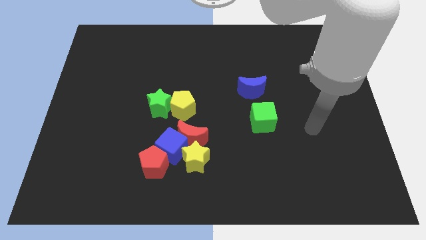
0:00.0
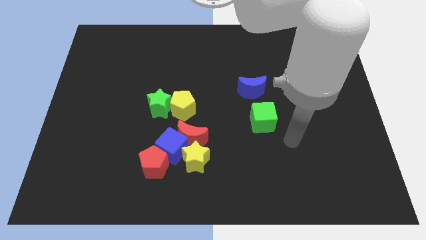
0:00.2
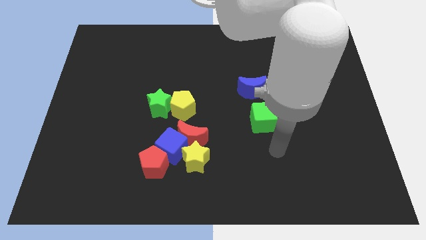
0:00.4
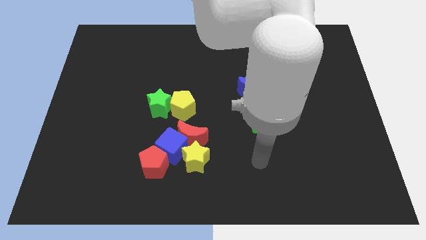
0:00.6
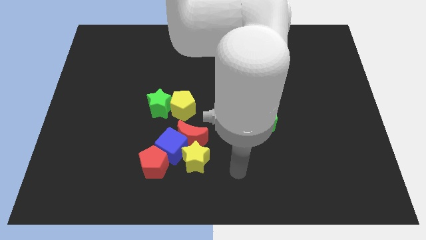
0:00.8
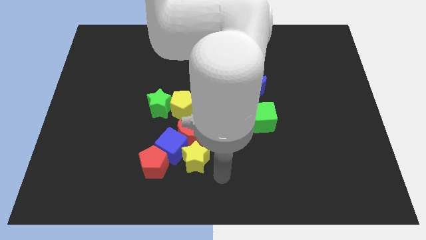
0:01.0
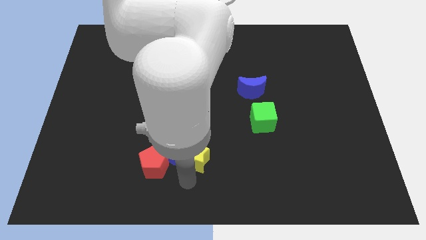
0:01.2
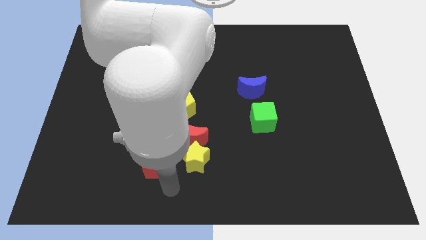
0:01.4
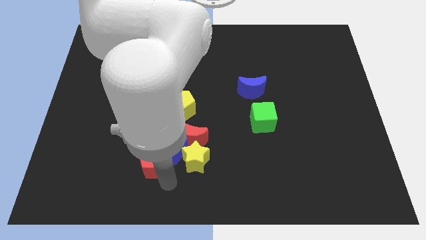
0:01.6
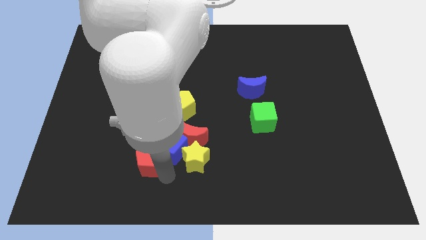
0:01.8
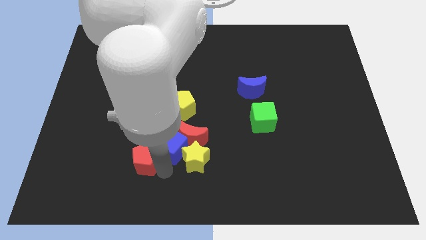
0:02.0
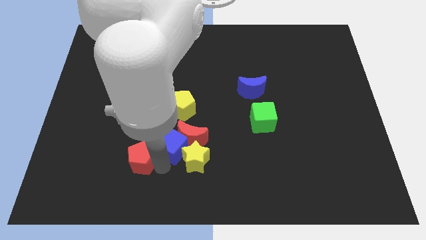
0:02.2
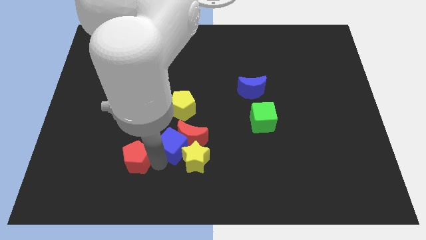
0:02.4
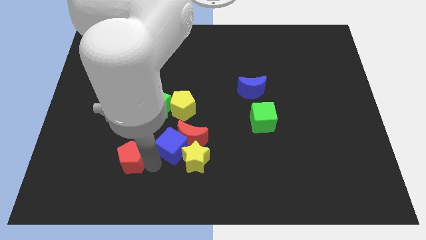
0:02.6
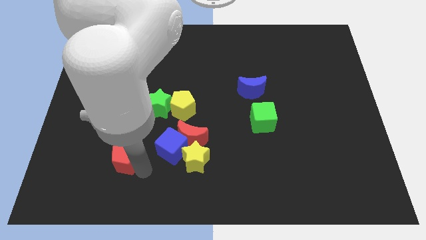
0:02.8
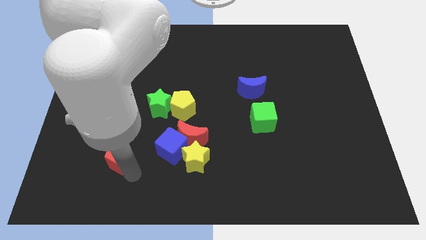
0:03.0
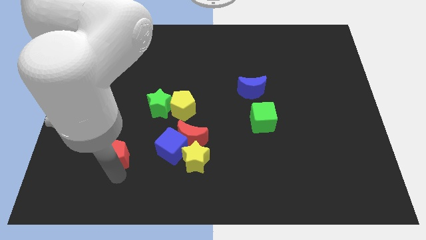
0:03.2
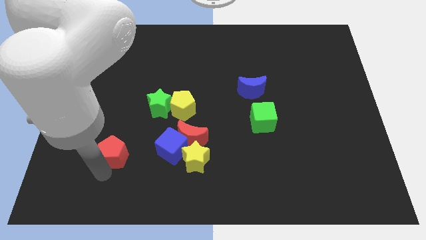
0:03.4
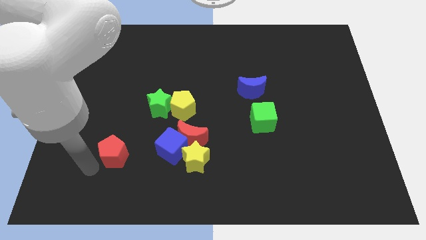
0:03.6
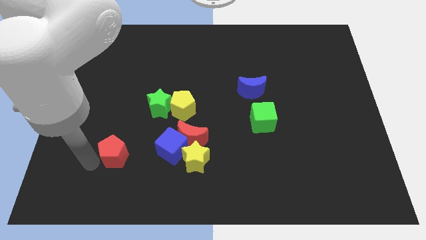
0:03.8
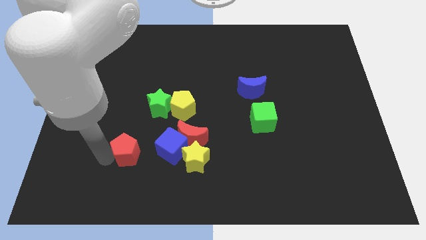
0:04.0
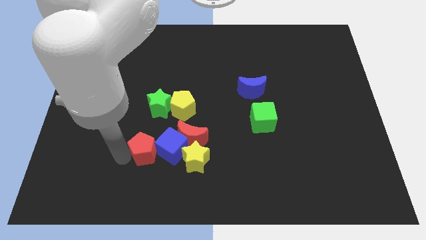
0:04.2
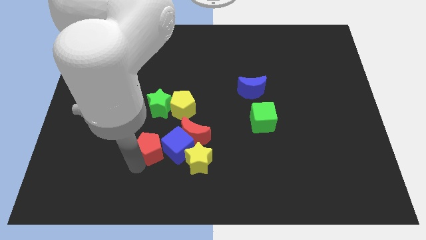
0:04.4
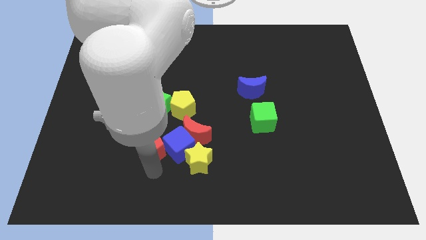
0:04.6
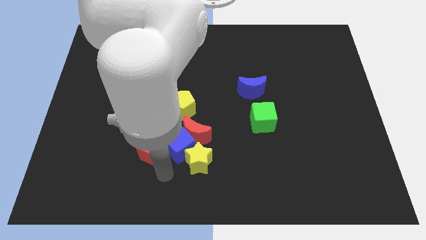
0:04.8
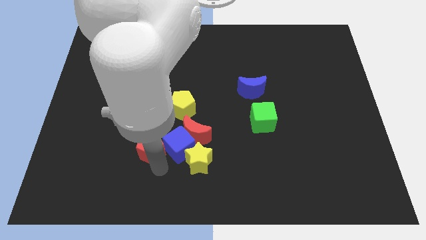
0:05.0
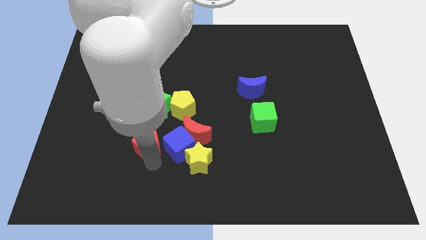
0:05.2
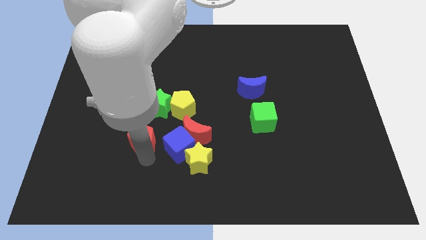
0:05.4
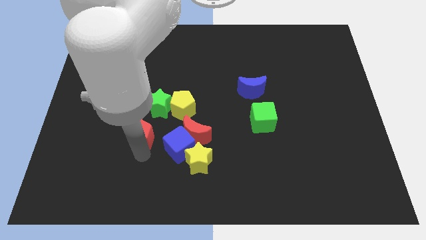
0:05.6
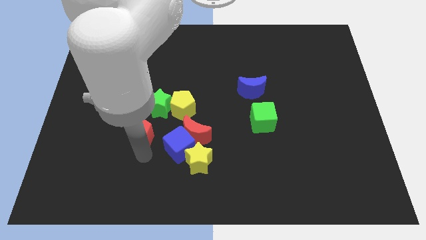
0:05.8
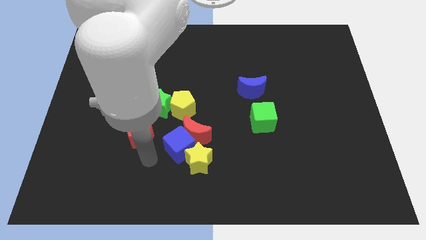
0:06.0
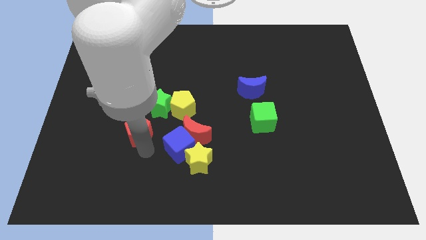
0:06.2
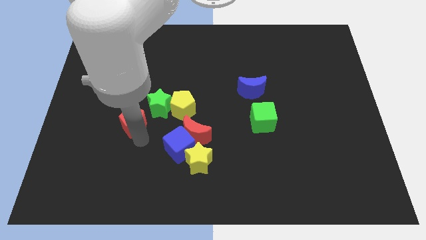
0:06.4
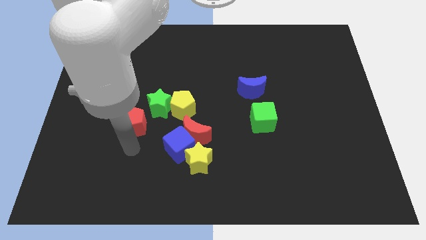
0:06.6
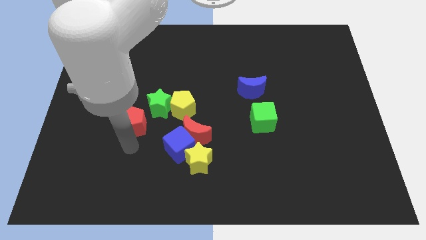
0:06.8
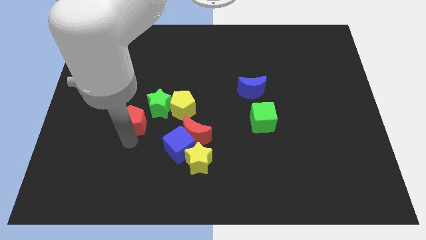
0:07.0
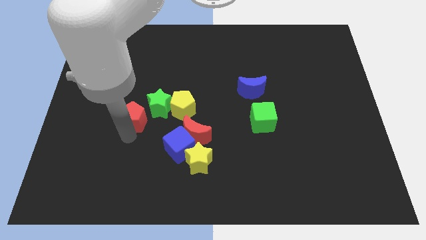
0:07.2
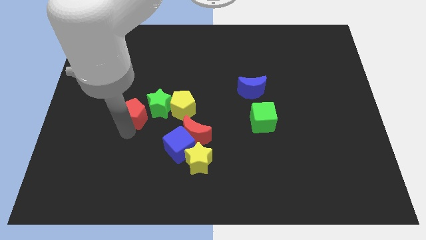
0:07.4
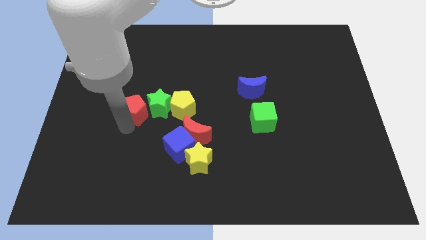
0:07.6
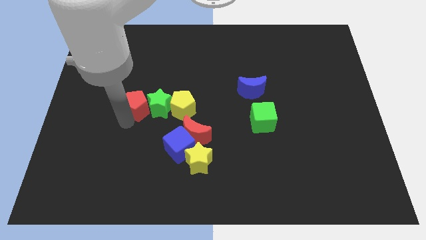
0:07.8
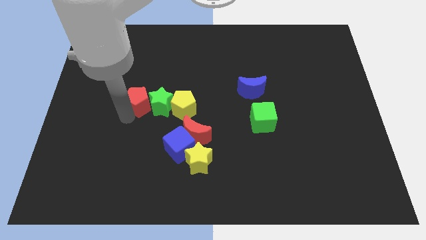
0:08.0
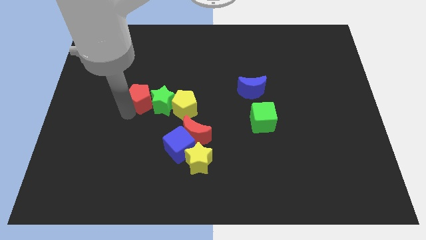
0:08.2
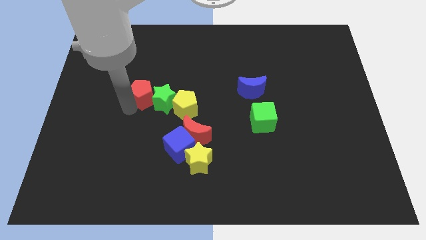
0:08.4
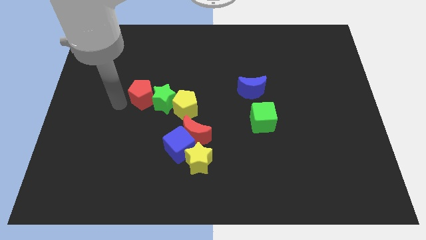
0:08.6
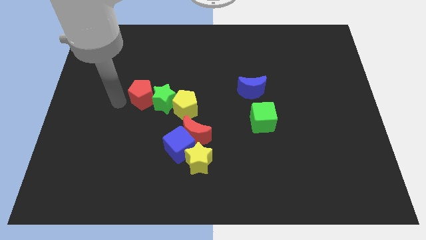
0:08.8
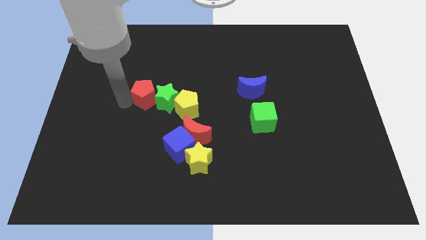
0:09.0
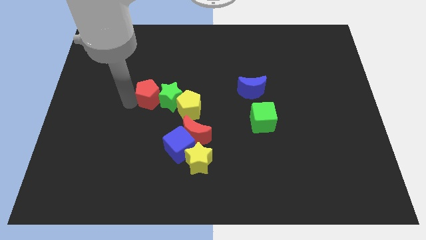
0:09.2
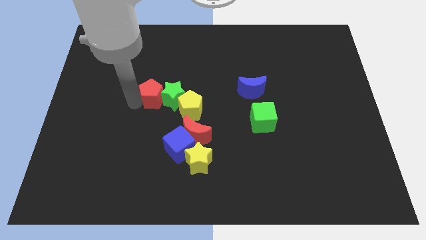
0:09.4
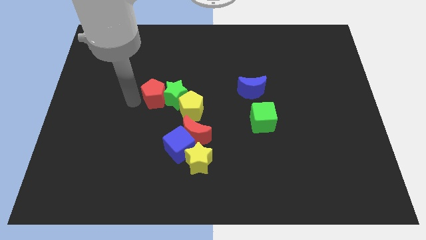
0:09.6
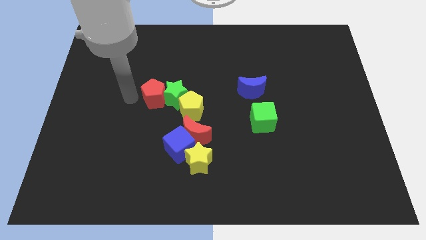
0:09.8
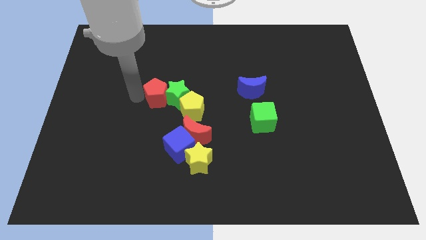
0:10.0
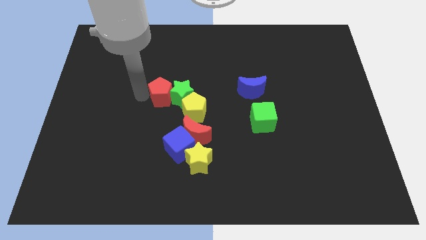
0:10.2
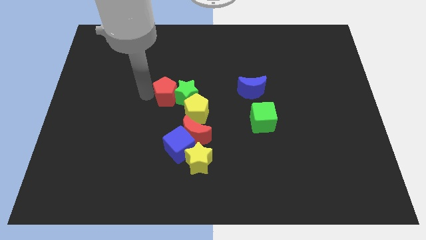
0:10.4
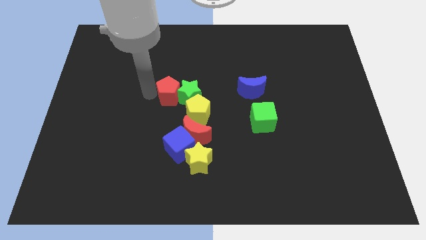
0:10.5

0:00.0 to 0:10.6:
put the red pentagon above the blue cube

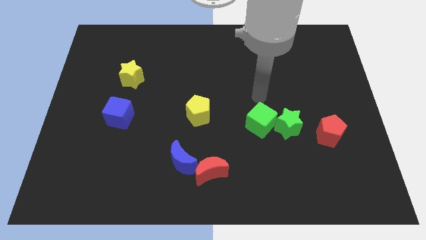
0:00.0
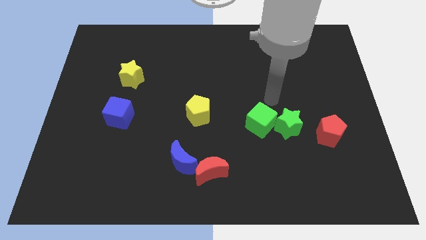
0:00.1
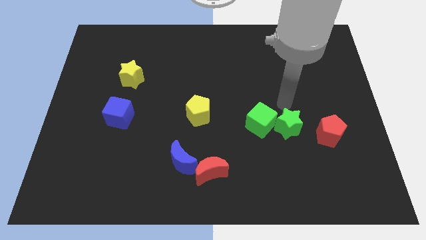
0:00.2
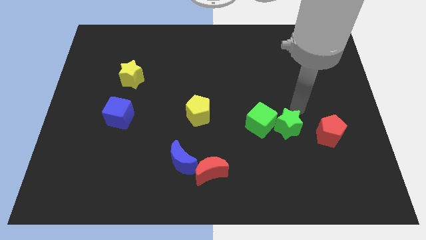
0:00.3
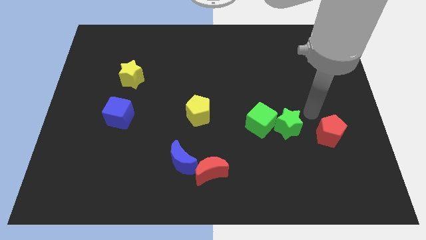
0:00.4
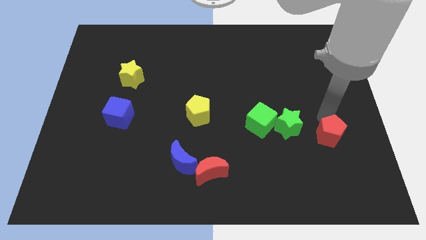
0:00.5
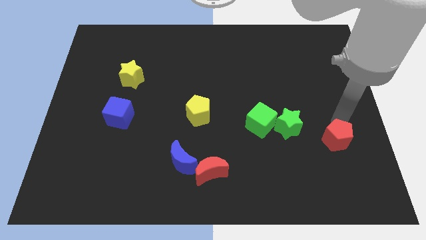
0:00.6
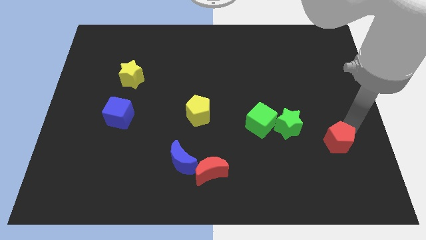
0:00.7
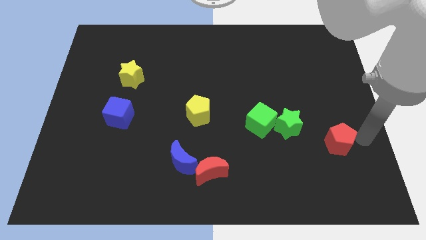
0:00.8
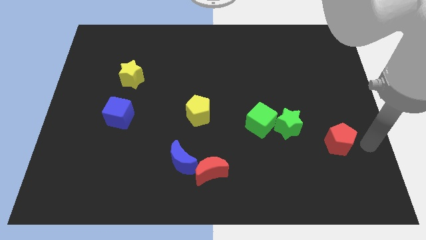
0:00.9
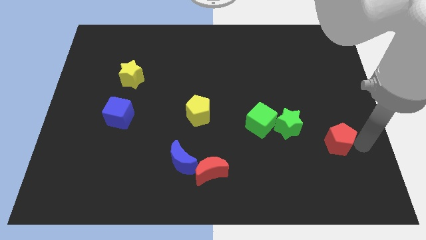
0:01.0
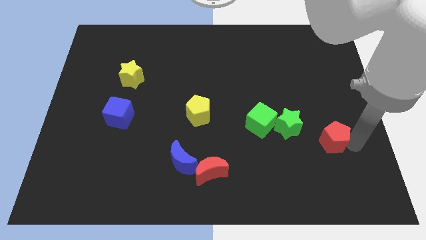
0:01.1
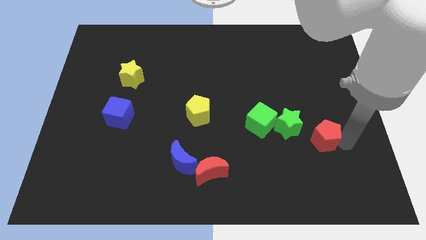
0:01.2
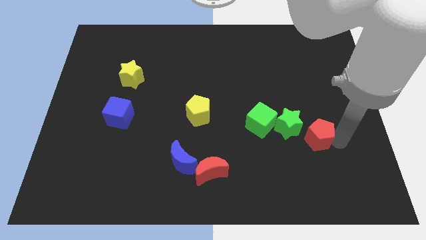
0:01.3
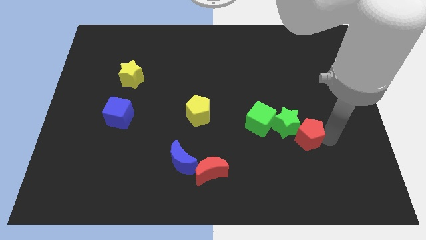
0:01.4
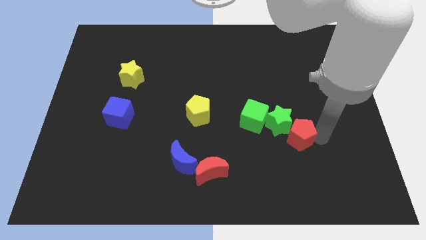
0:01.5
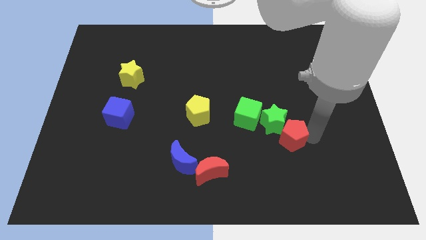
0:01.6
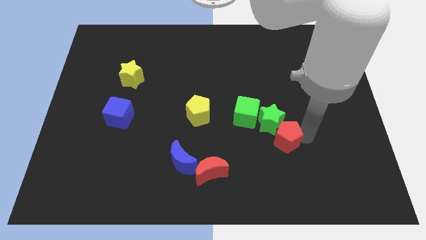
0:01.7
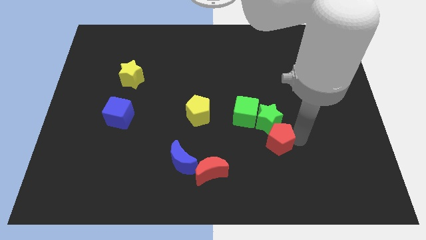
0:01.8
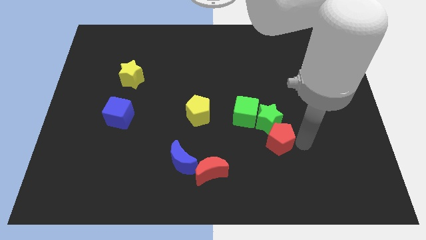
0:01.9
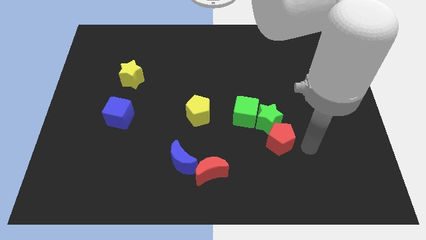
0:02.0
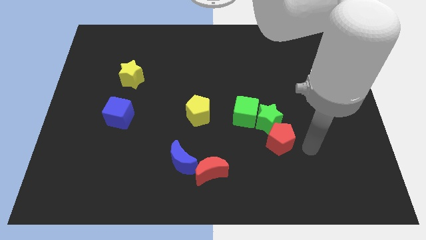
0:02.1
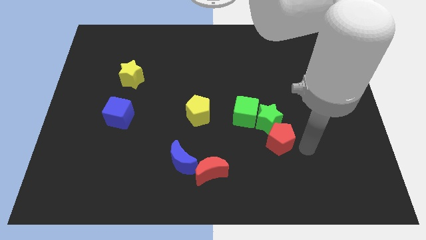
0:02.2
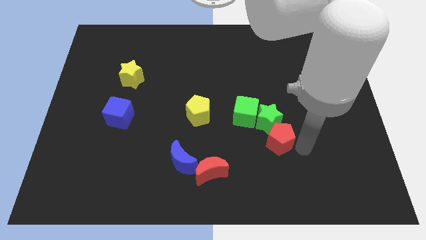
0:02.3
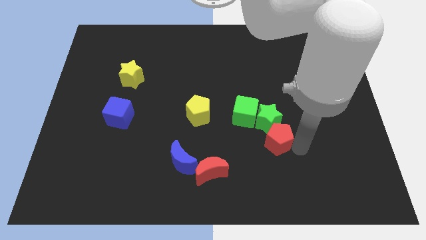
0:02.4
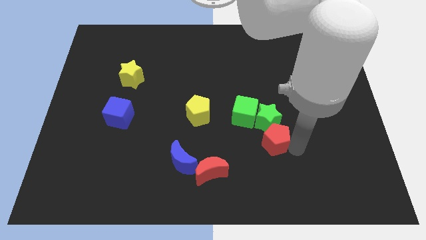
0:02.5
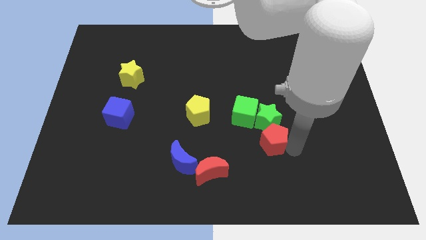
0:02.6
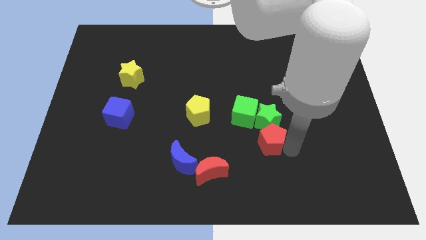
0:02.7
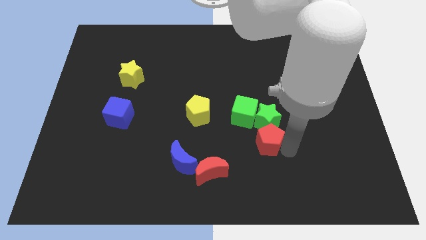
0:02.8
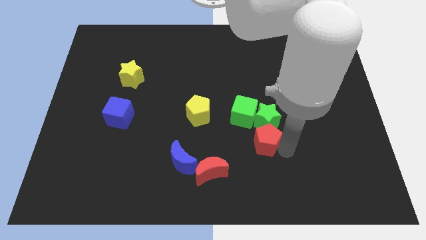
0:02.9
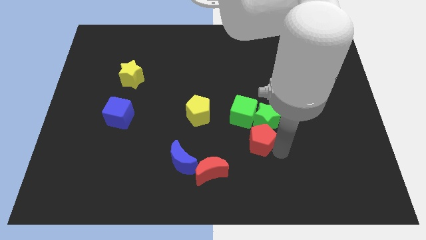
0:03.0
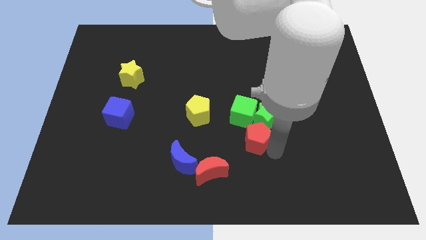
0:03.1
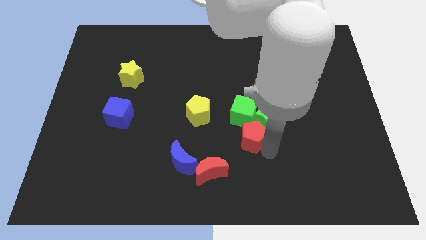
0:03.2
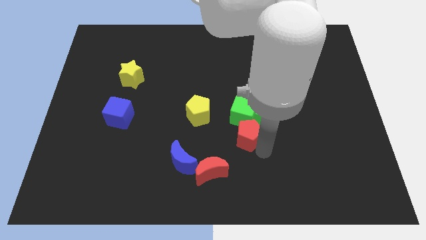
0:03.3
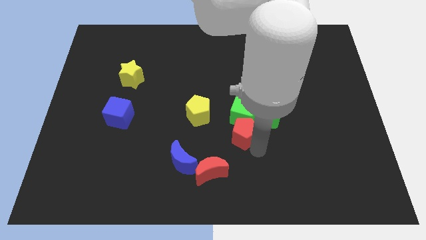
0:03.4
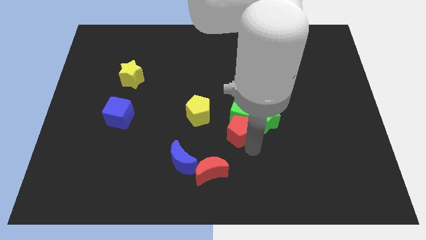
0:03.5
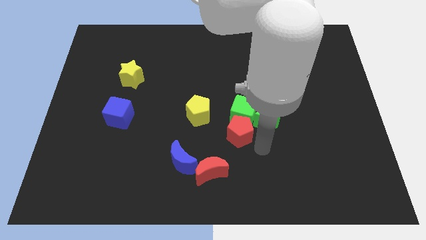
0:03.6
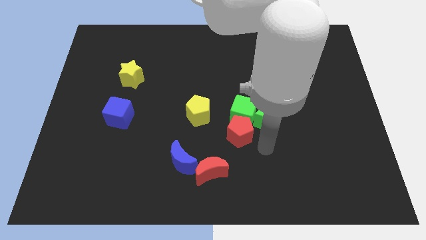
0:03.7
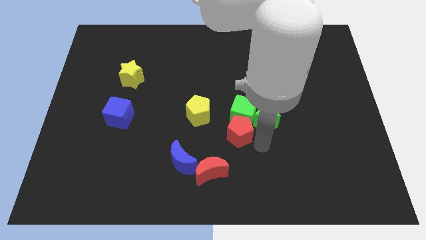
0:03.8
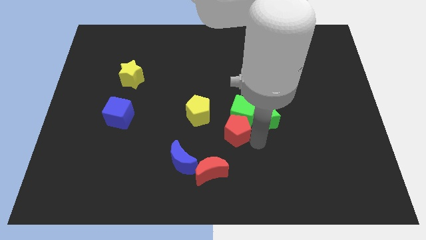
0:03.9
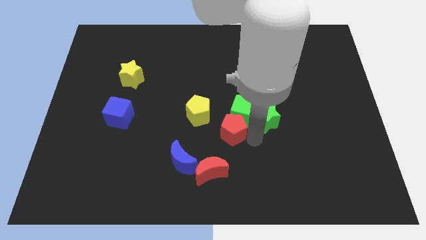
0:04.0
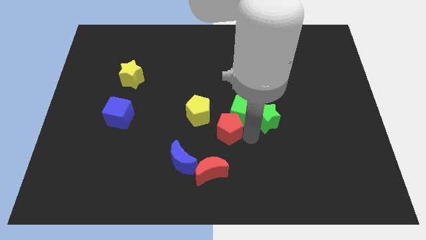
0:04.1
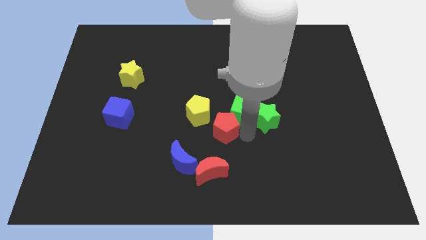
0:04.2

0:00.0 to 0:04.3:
push the red pentagon to the left of the green cube
